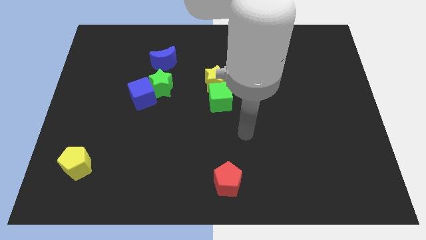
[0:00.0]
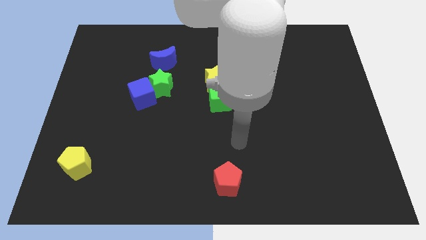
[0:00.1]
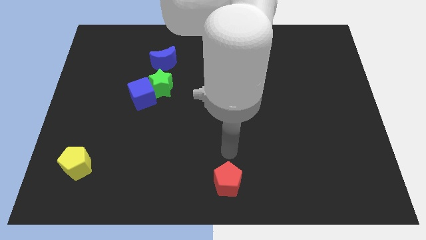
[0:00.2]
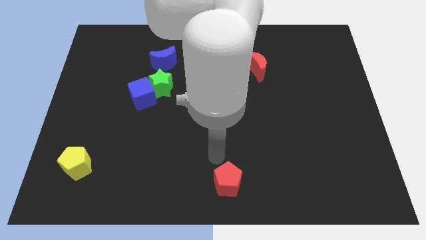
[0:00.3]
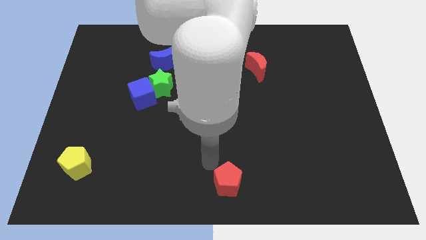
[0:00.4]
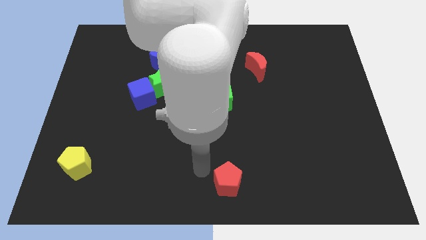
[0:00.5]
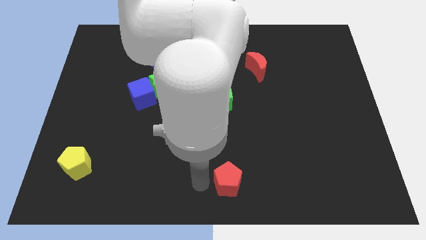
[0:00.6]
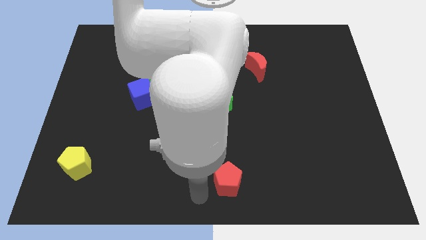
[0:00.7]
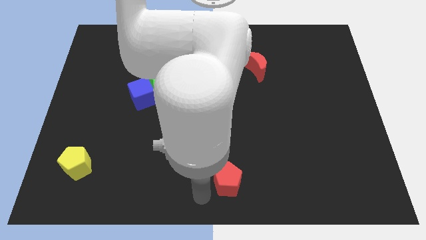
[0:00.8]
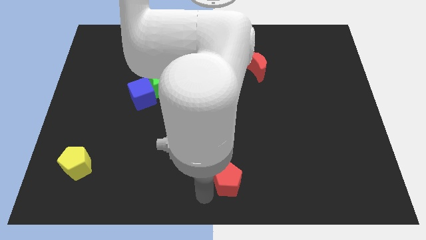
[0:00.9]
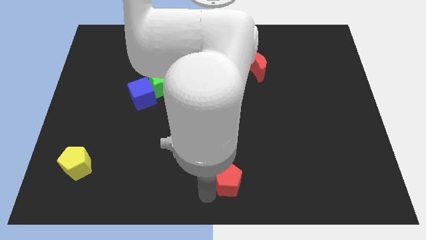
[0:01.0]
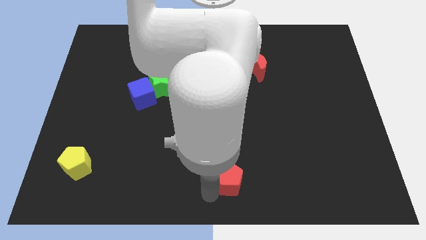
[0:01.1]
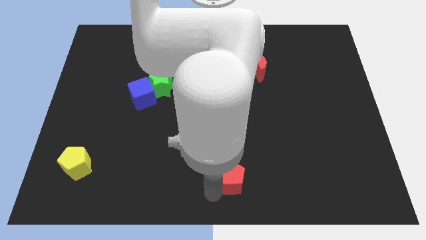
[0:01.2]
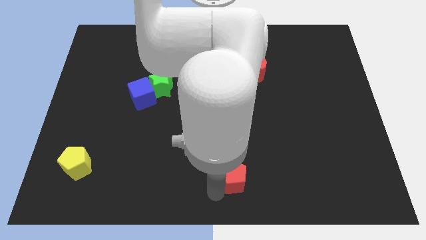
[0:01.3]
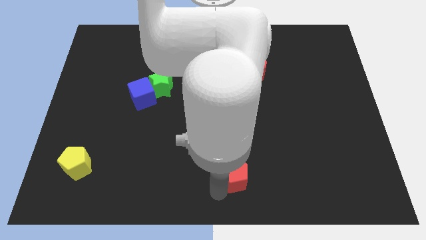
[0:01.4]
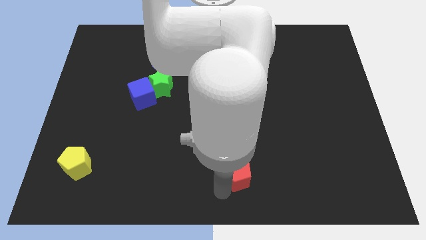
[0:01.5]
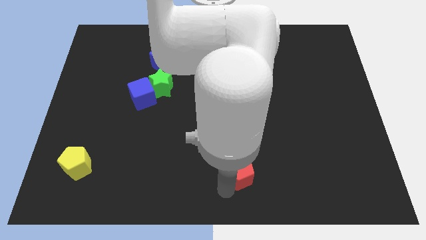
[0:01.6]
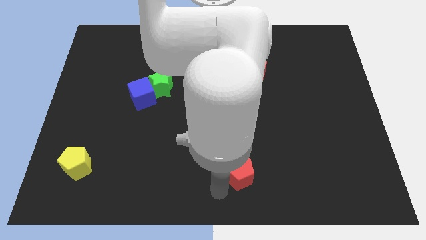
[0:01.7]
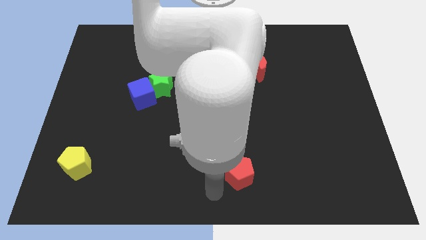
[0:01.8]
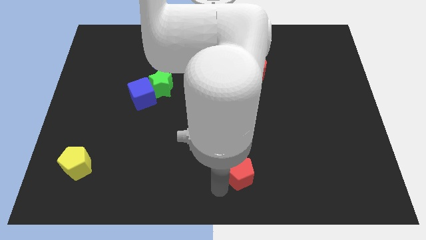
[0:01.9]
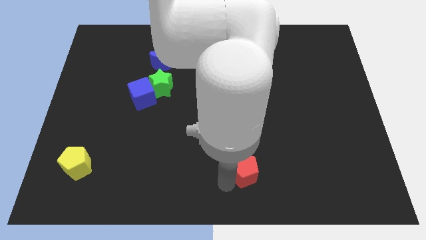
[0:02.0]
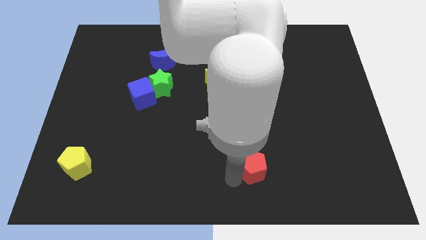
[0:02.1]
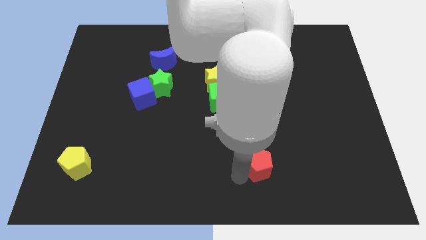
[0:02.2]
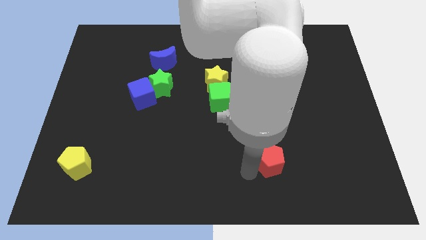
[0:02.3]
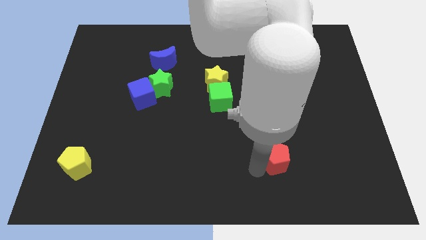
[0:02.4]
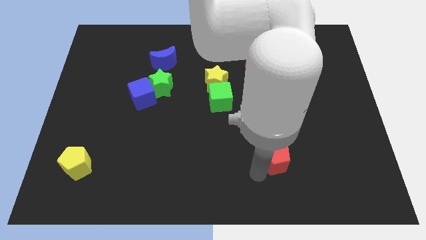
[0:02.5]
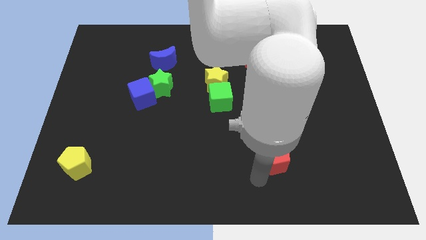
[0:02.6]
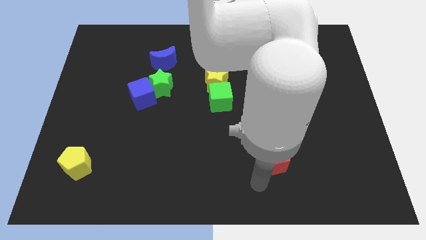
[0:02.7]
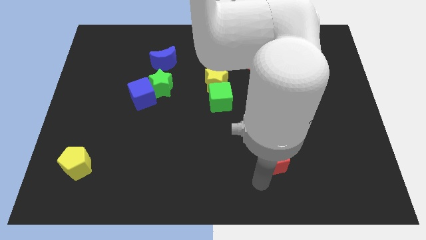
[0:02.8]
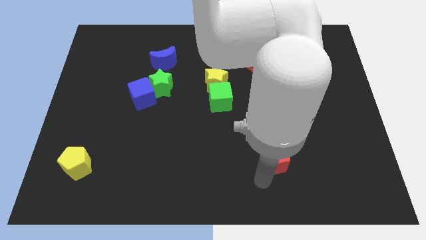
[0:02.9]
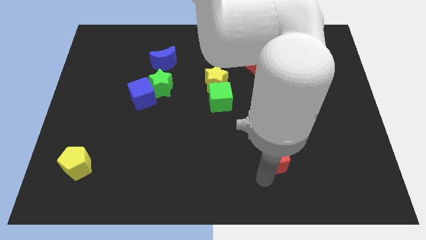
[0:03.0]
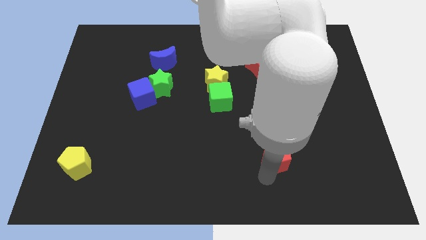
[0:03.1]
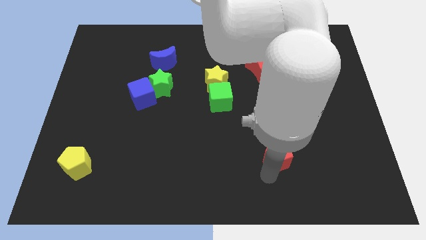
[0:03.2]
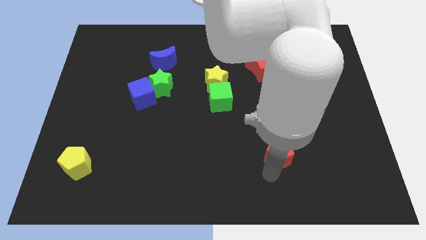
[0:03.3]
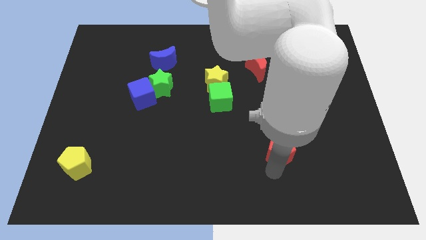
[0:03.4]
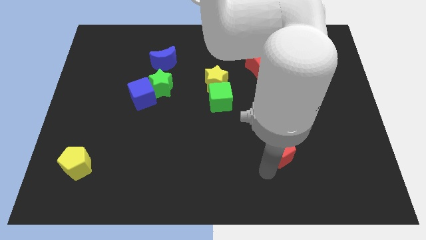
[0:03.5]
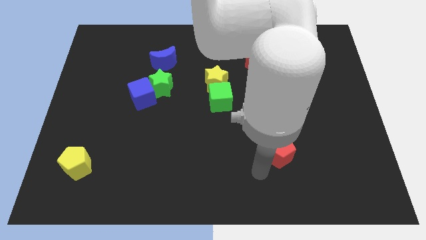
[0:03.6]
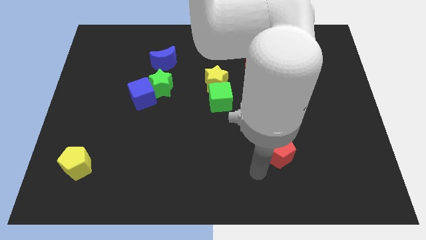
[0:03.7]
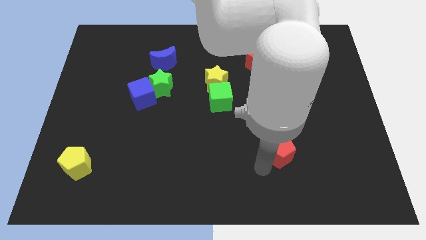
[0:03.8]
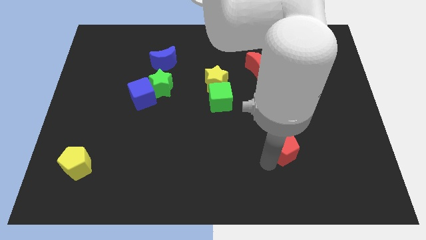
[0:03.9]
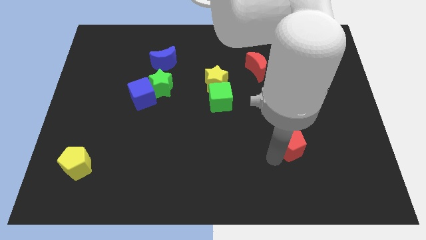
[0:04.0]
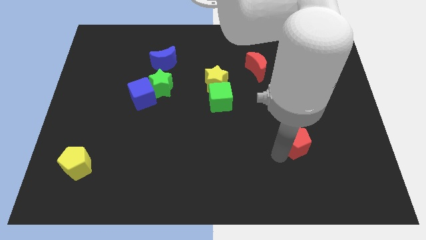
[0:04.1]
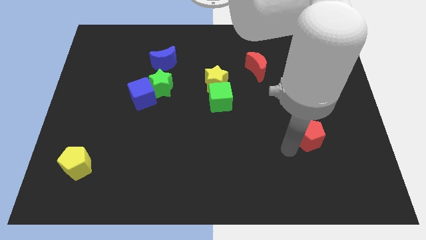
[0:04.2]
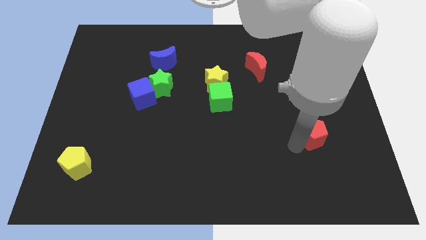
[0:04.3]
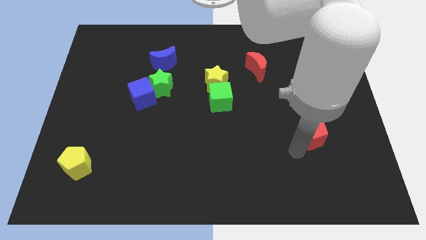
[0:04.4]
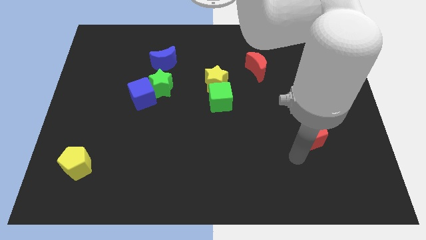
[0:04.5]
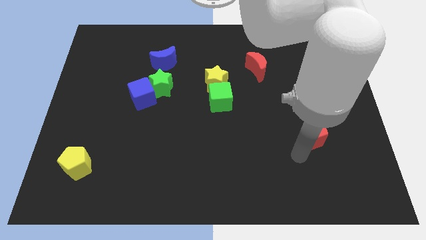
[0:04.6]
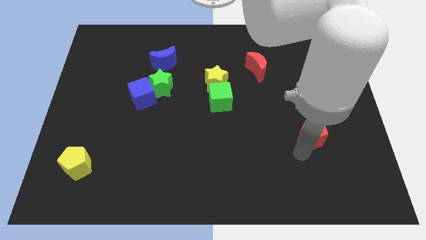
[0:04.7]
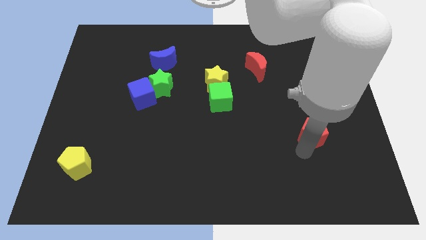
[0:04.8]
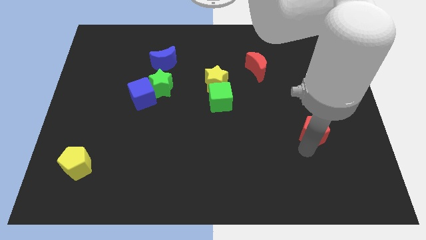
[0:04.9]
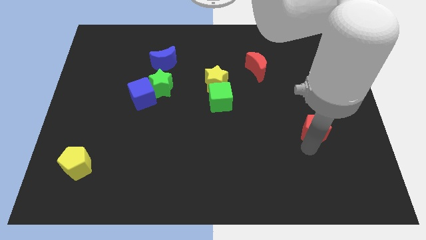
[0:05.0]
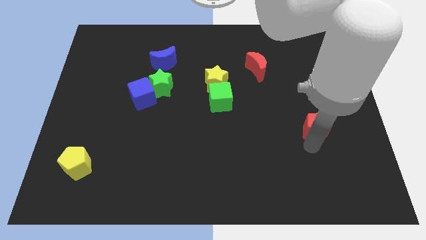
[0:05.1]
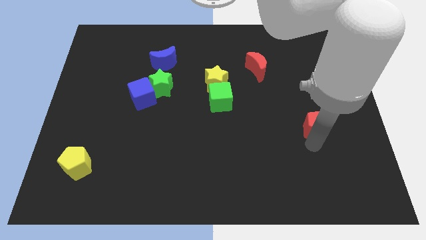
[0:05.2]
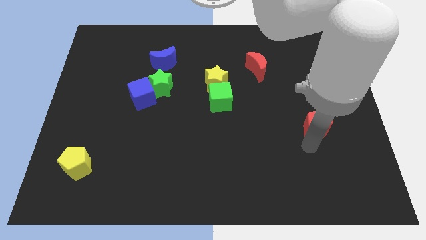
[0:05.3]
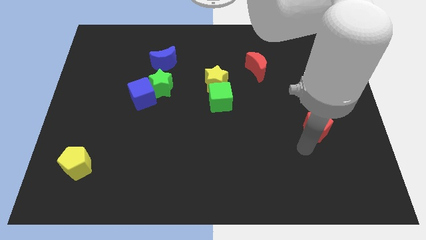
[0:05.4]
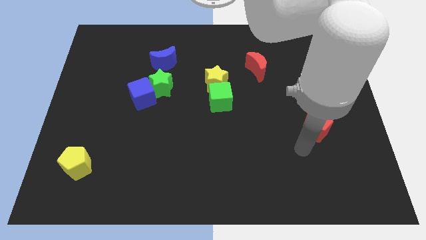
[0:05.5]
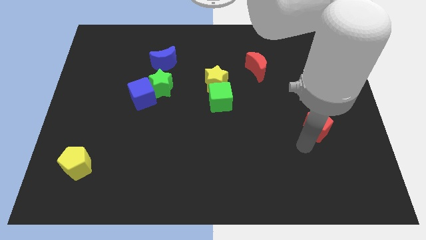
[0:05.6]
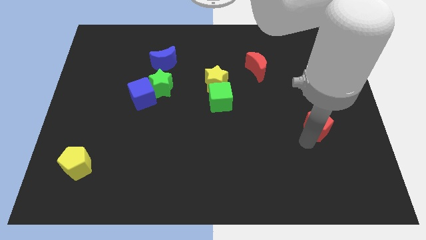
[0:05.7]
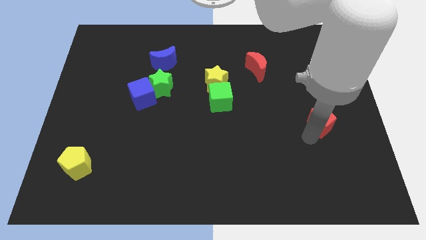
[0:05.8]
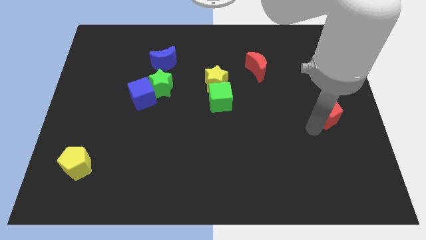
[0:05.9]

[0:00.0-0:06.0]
put the red pentagon to the center right
